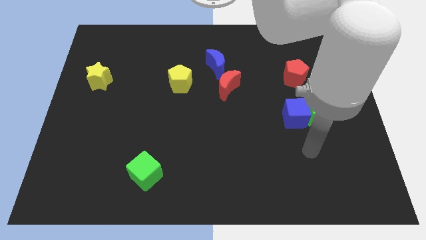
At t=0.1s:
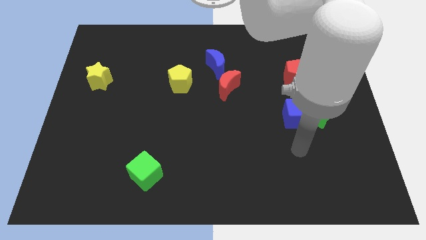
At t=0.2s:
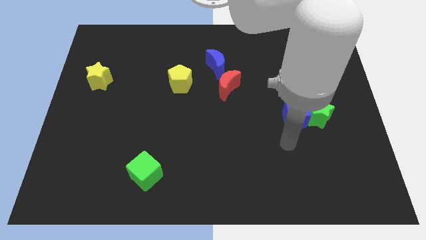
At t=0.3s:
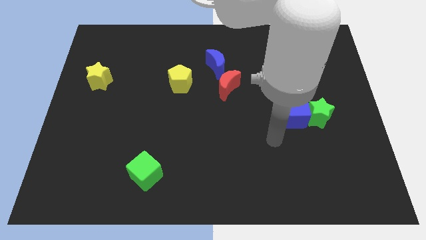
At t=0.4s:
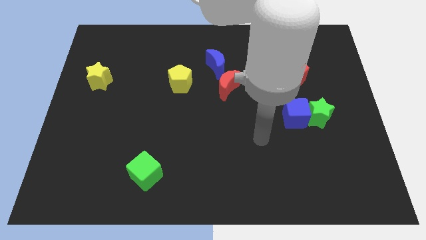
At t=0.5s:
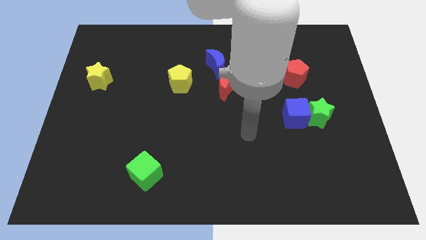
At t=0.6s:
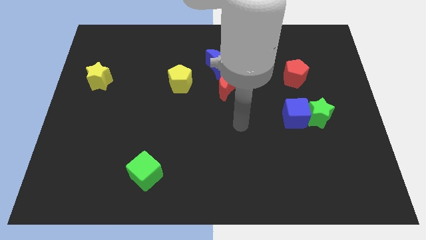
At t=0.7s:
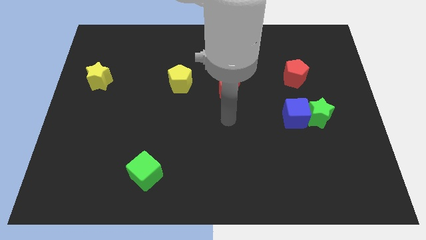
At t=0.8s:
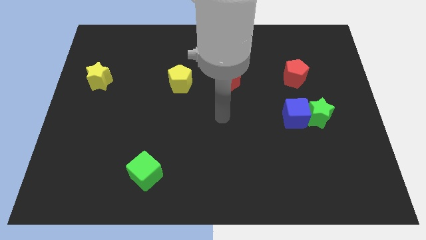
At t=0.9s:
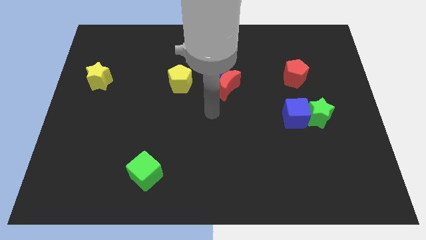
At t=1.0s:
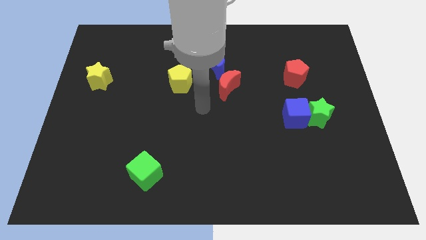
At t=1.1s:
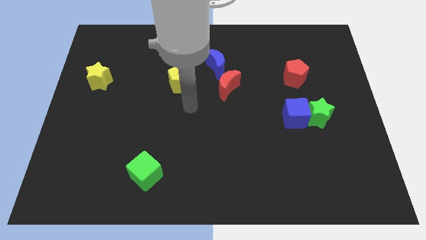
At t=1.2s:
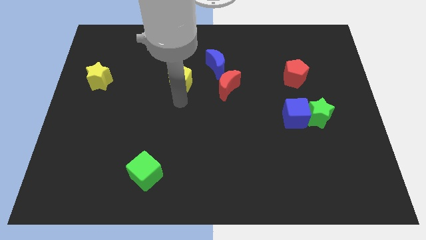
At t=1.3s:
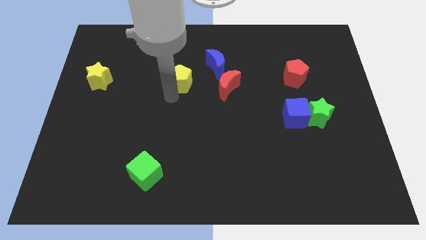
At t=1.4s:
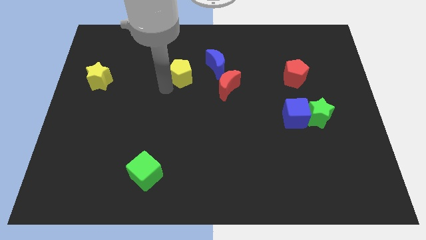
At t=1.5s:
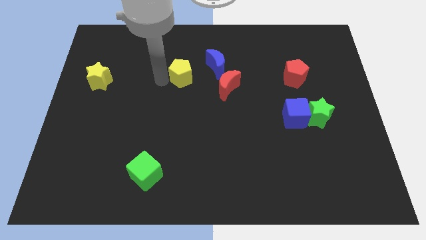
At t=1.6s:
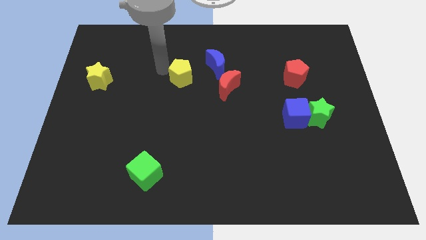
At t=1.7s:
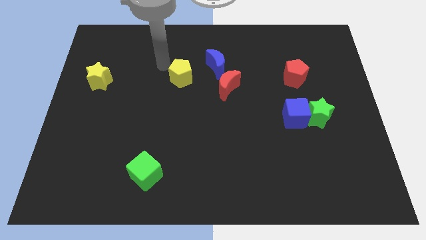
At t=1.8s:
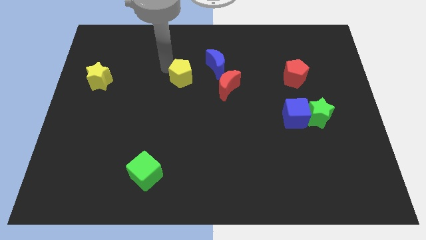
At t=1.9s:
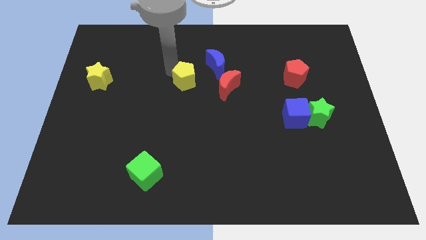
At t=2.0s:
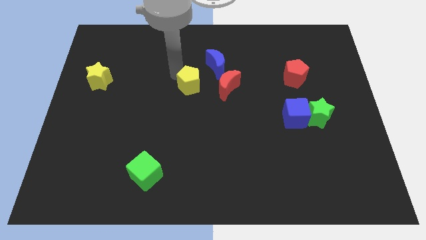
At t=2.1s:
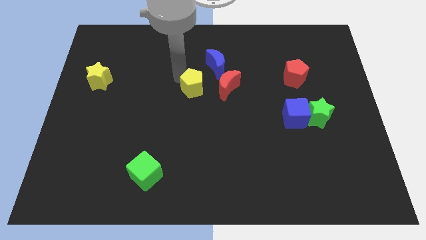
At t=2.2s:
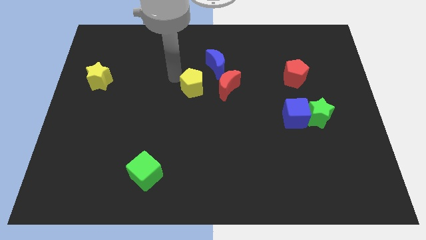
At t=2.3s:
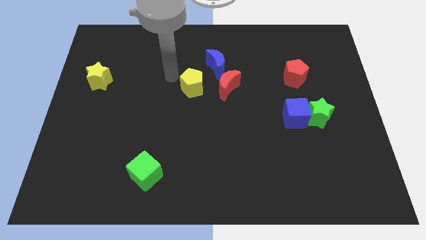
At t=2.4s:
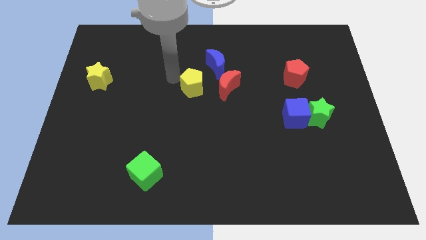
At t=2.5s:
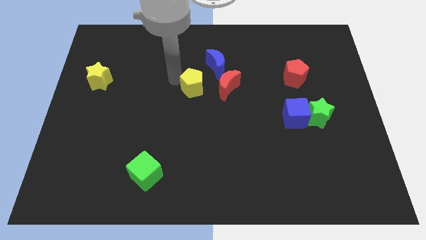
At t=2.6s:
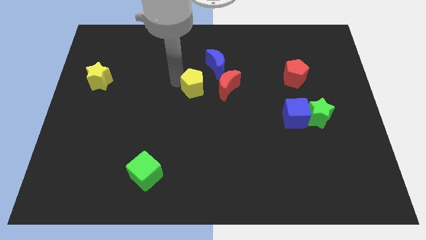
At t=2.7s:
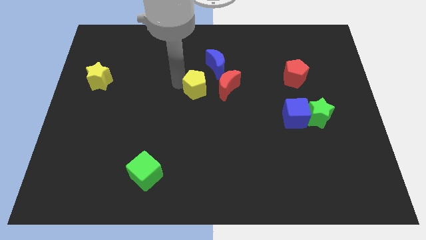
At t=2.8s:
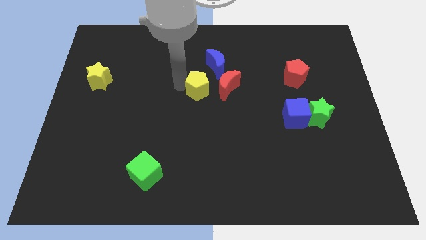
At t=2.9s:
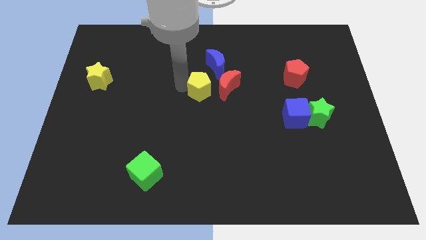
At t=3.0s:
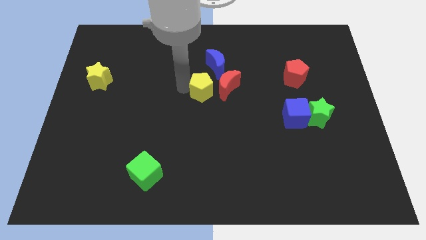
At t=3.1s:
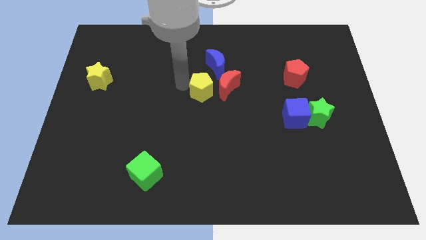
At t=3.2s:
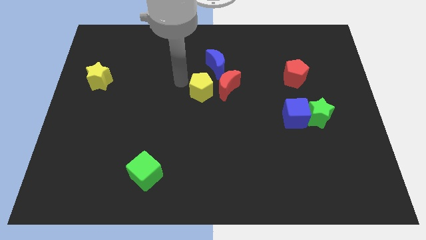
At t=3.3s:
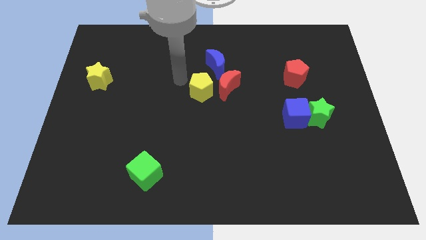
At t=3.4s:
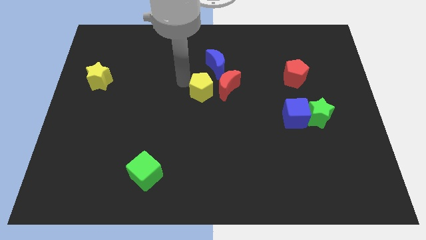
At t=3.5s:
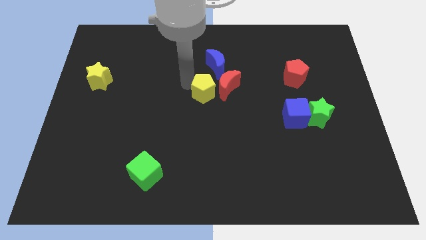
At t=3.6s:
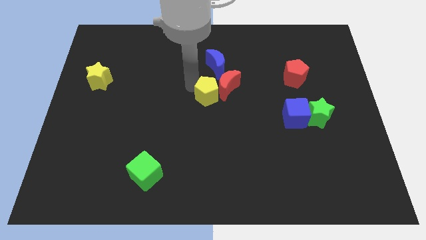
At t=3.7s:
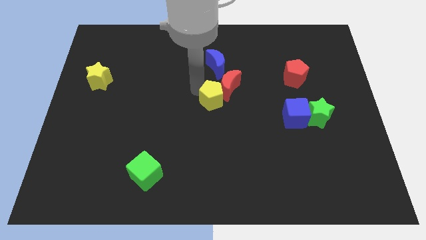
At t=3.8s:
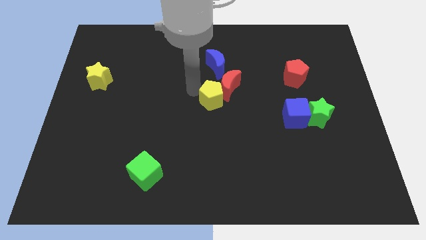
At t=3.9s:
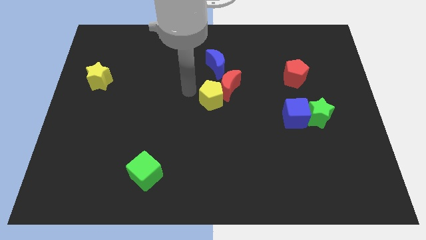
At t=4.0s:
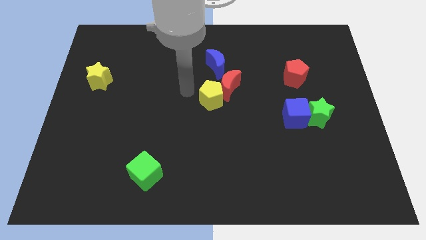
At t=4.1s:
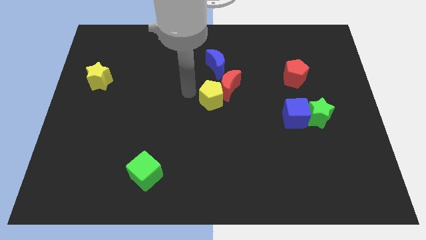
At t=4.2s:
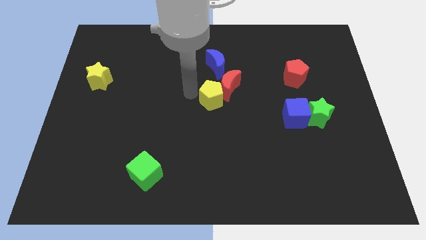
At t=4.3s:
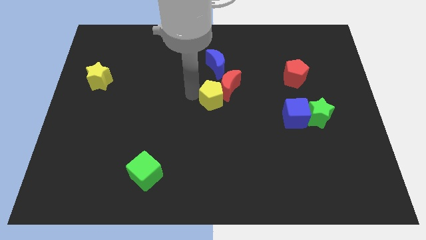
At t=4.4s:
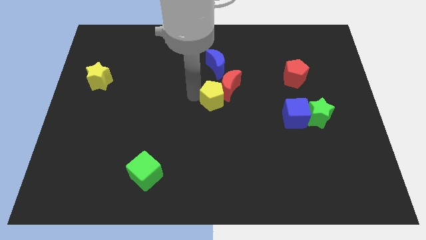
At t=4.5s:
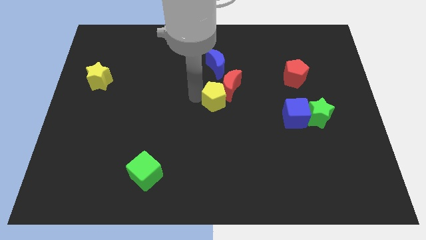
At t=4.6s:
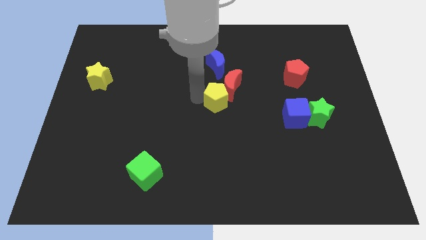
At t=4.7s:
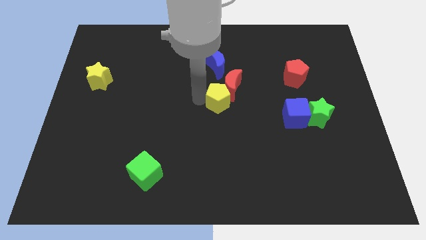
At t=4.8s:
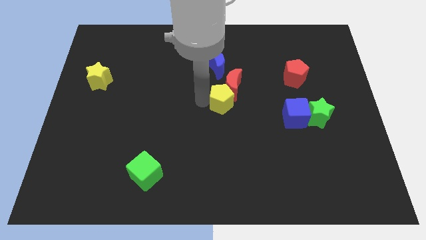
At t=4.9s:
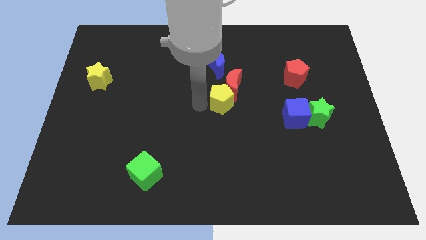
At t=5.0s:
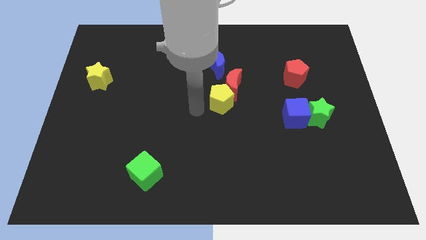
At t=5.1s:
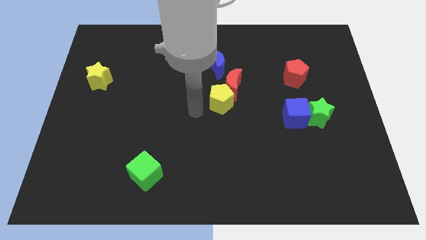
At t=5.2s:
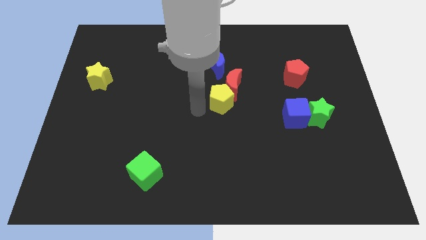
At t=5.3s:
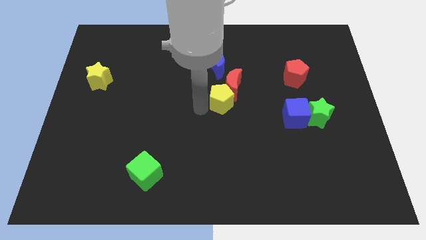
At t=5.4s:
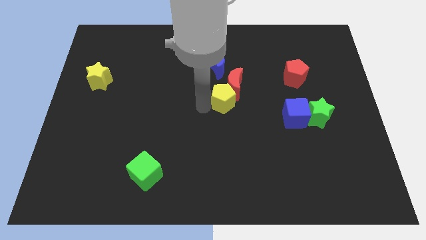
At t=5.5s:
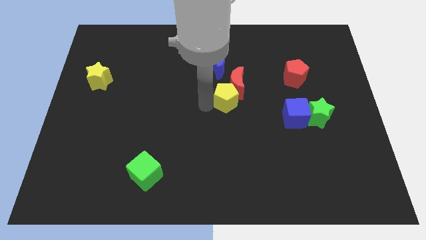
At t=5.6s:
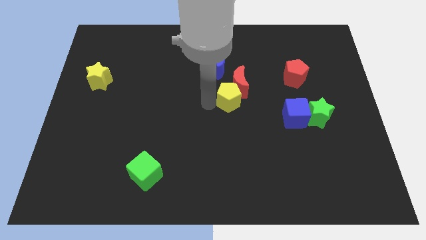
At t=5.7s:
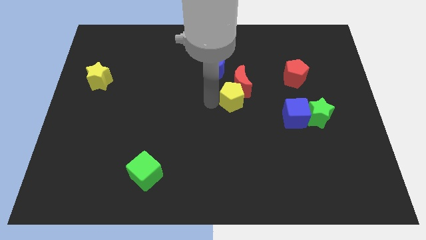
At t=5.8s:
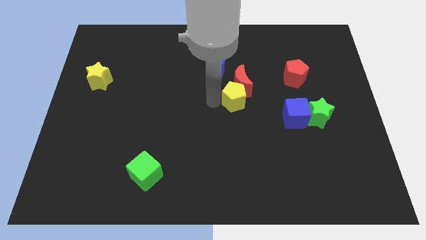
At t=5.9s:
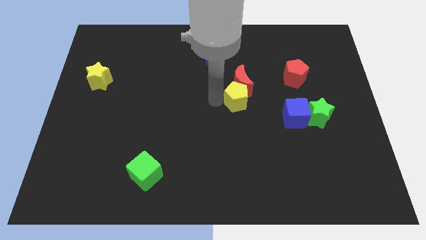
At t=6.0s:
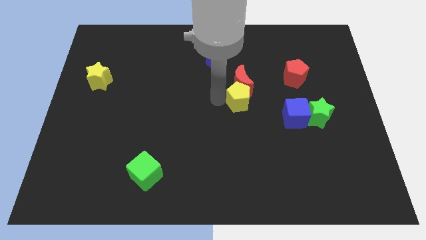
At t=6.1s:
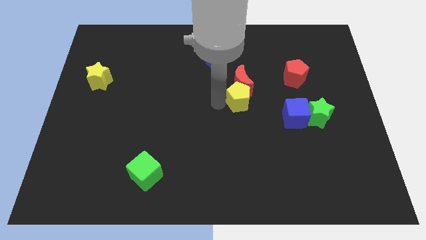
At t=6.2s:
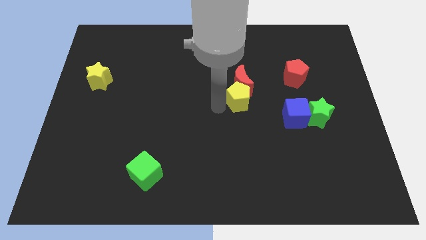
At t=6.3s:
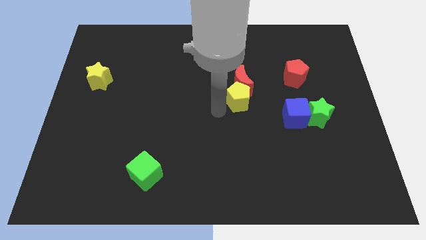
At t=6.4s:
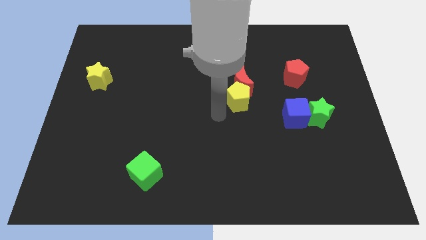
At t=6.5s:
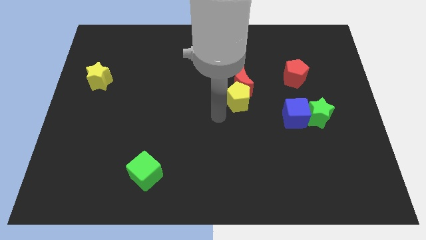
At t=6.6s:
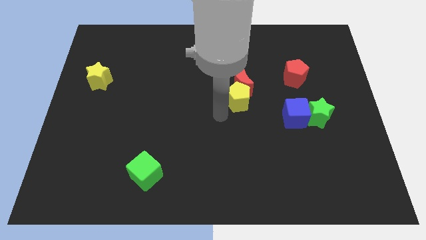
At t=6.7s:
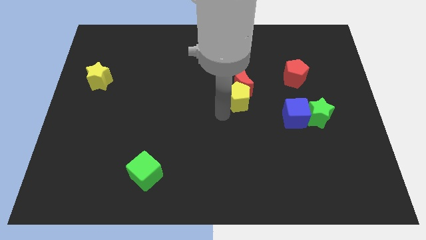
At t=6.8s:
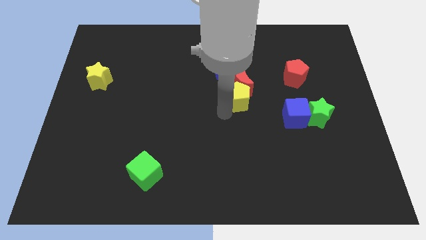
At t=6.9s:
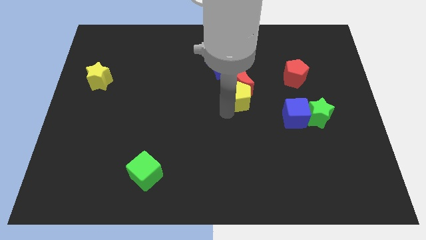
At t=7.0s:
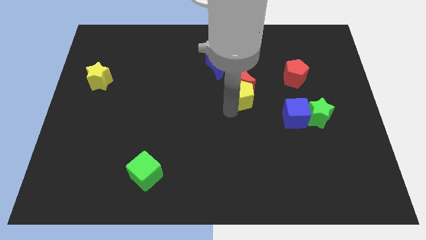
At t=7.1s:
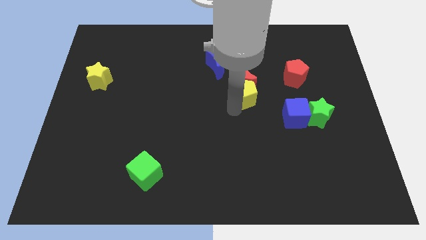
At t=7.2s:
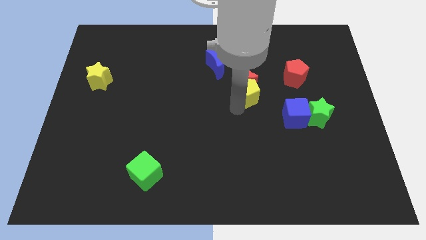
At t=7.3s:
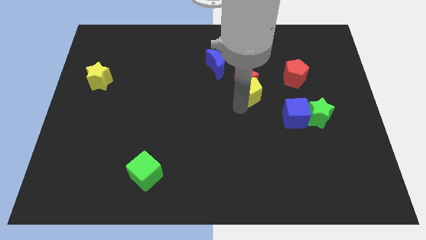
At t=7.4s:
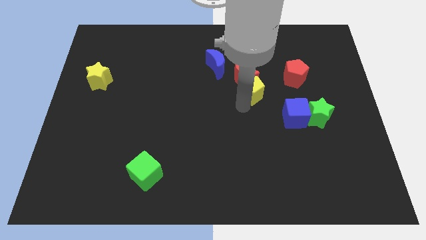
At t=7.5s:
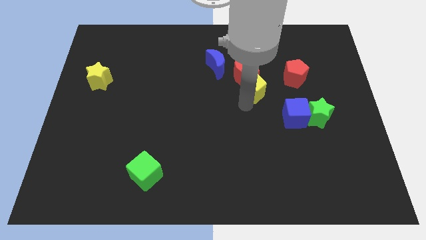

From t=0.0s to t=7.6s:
put the yellow pentagon to the left side of the red pentagon
